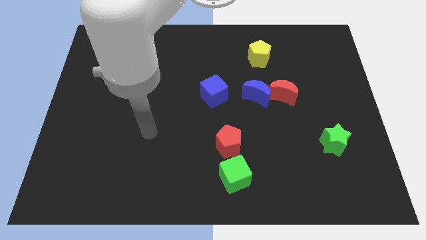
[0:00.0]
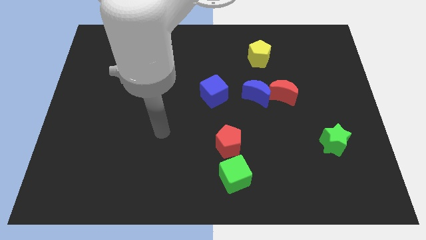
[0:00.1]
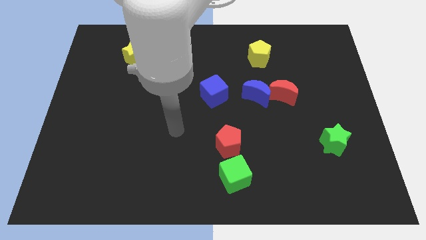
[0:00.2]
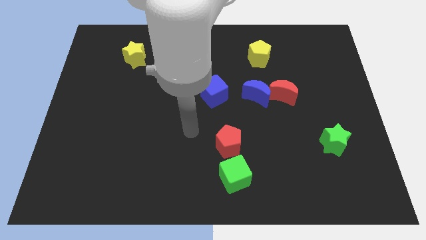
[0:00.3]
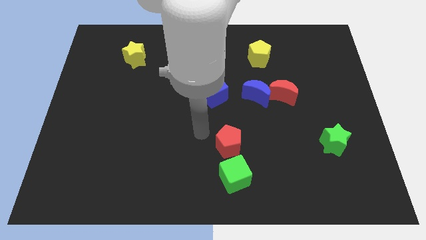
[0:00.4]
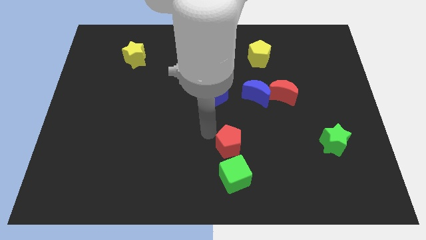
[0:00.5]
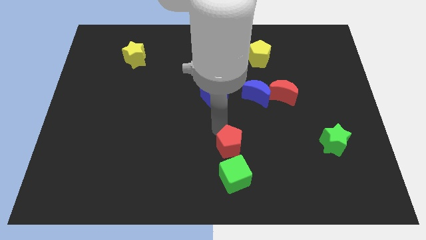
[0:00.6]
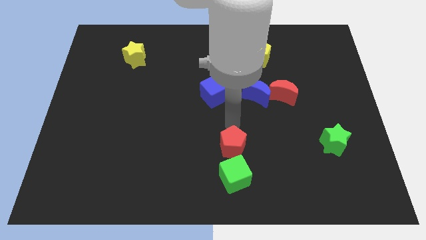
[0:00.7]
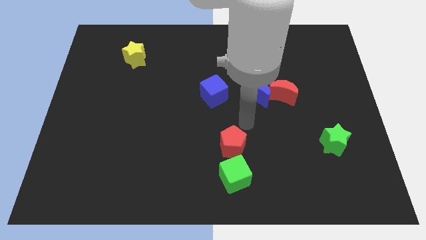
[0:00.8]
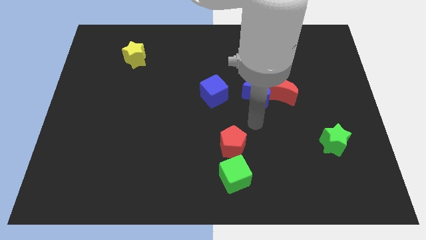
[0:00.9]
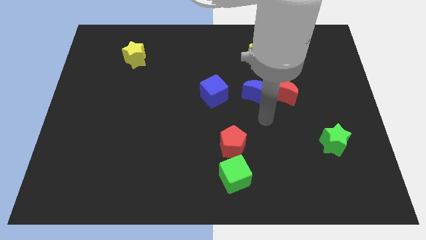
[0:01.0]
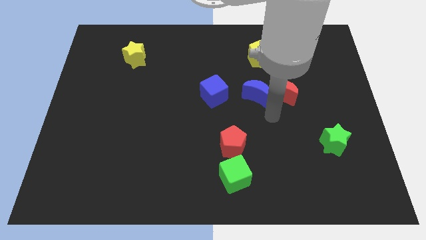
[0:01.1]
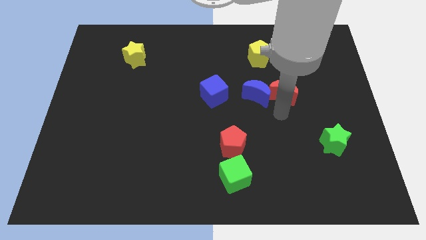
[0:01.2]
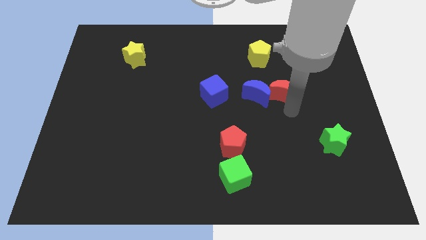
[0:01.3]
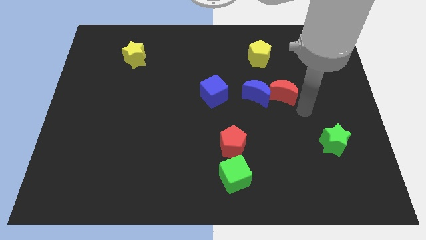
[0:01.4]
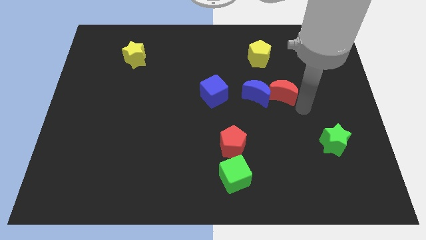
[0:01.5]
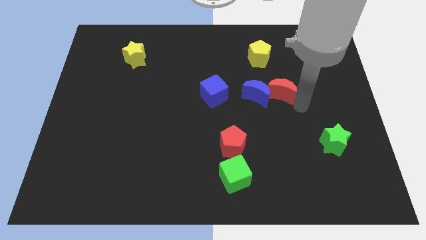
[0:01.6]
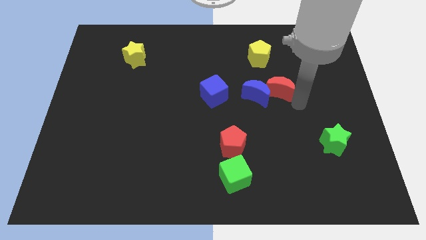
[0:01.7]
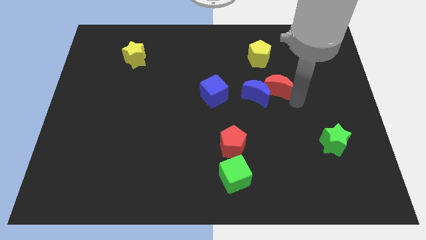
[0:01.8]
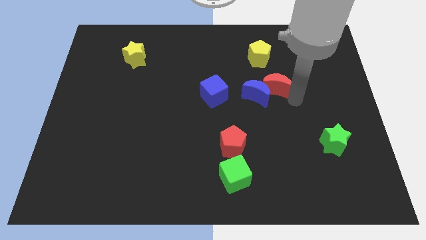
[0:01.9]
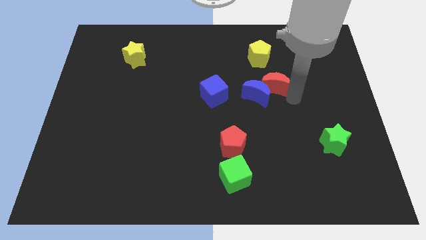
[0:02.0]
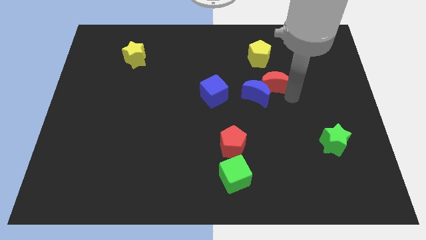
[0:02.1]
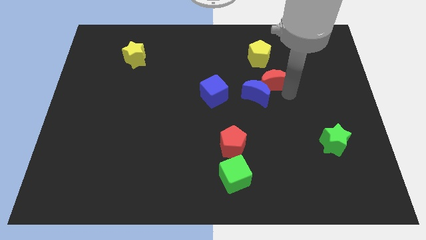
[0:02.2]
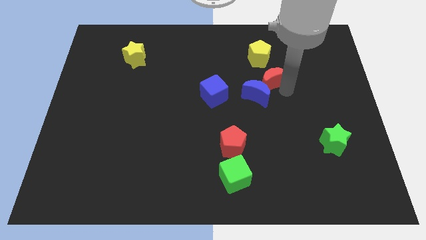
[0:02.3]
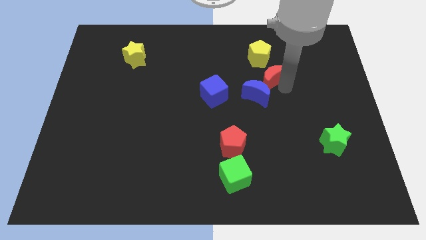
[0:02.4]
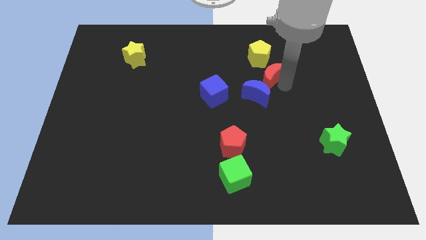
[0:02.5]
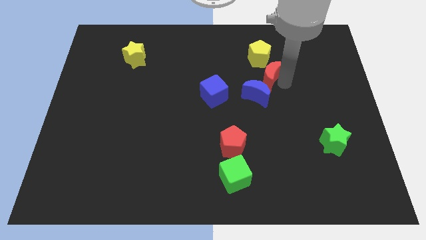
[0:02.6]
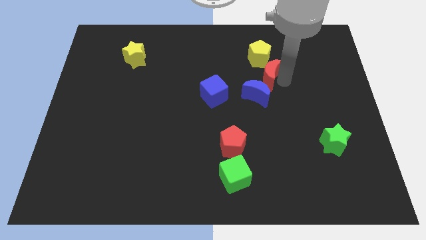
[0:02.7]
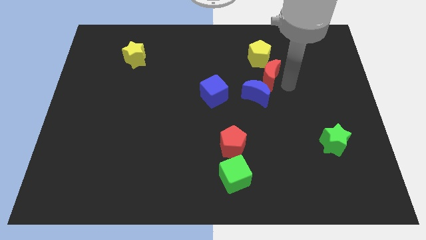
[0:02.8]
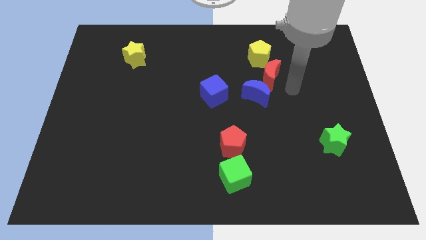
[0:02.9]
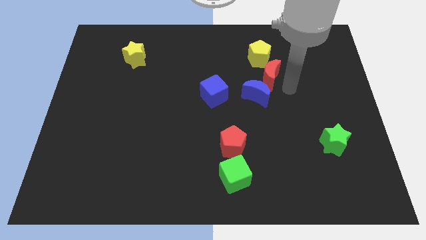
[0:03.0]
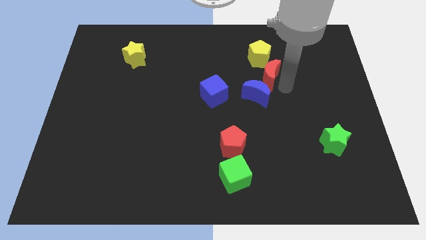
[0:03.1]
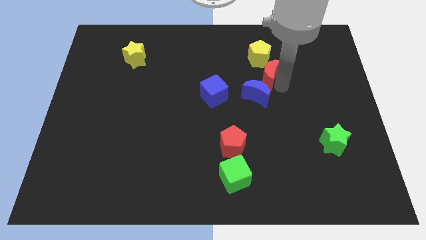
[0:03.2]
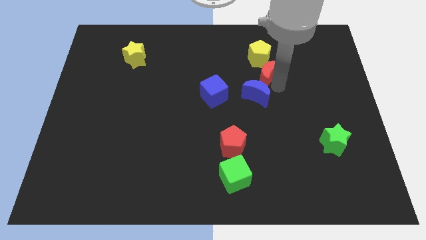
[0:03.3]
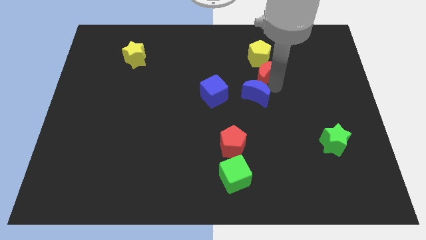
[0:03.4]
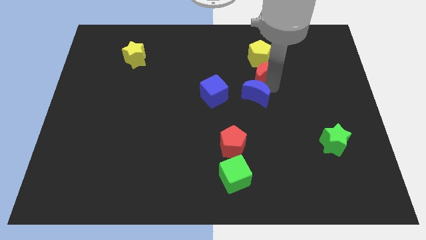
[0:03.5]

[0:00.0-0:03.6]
slide the red moon somewhat upwards and left diagonally

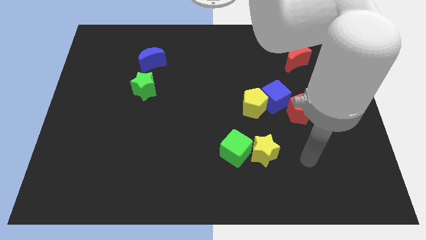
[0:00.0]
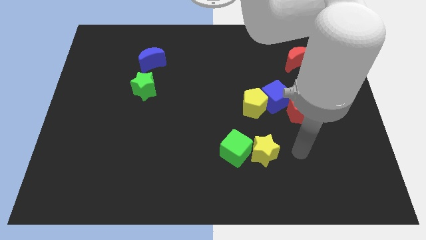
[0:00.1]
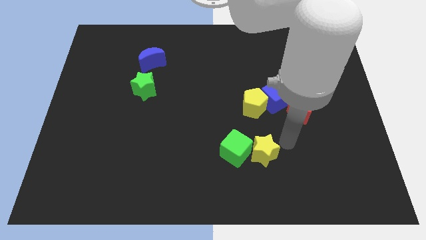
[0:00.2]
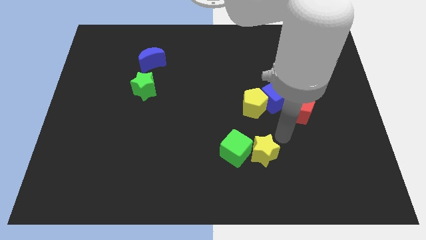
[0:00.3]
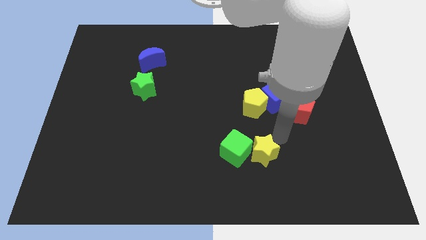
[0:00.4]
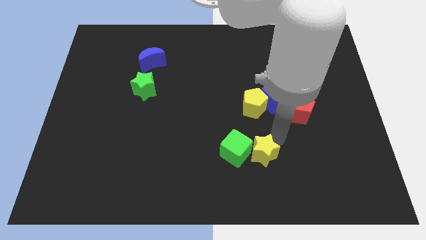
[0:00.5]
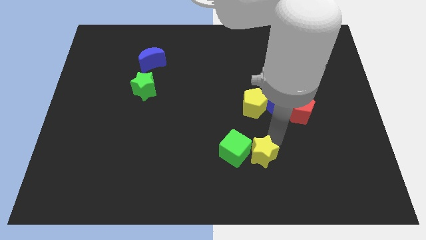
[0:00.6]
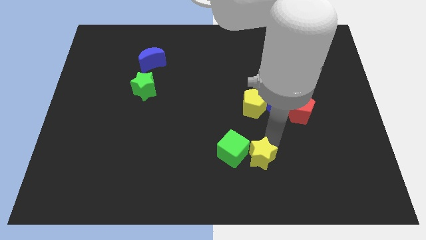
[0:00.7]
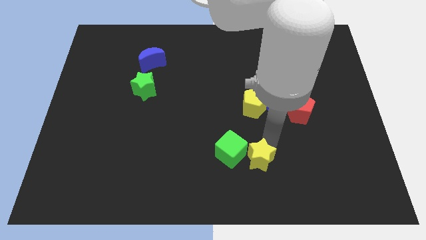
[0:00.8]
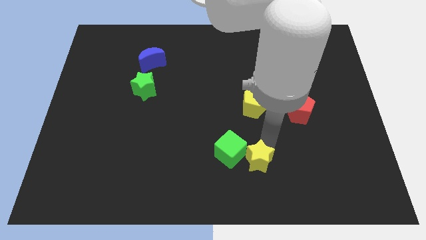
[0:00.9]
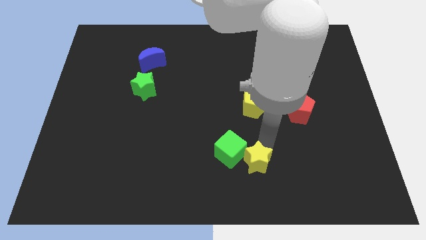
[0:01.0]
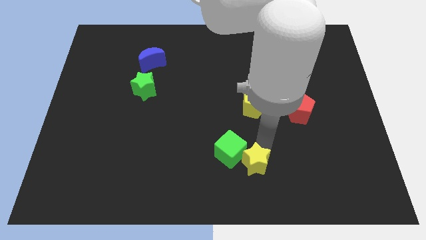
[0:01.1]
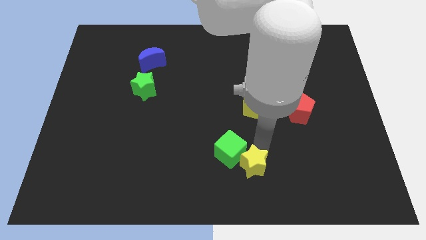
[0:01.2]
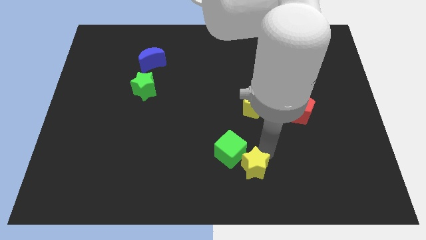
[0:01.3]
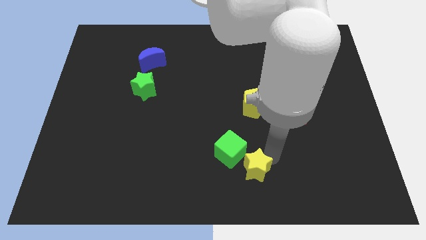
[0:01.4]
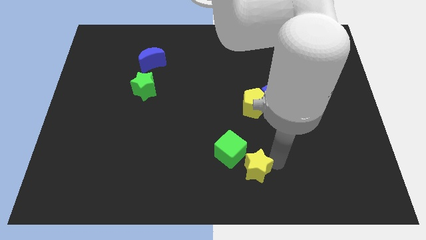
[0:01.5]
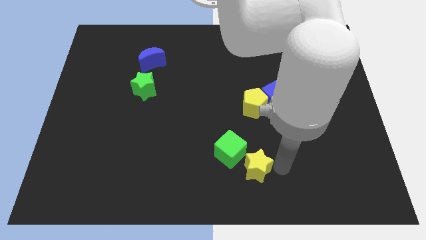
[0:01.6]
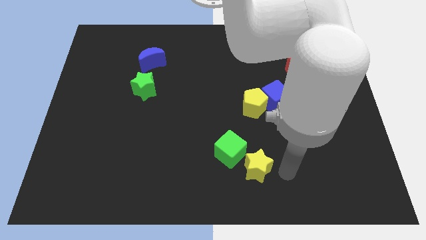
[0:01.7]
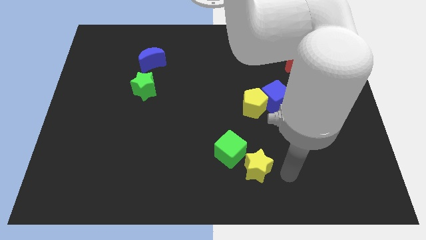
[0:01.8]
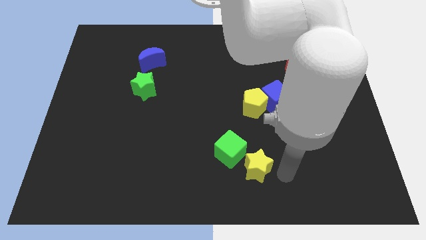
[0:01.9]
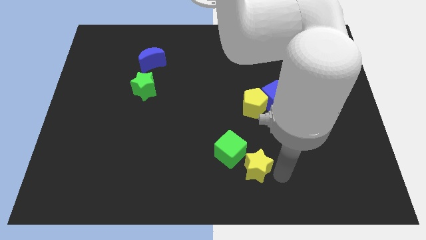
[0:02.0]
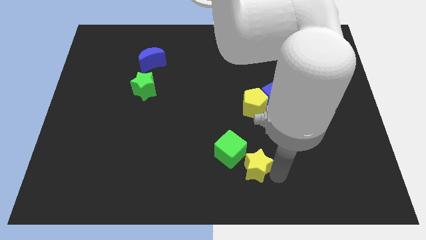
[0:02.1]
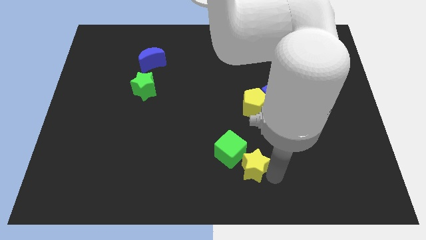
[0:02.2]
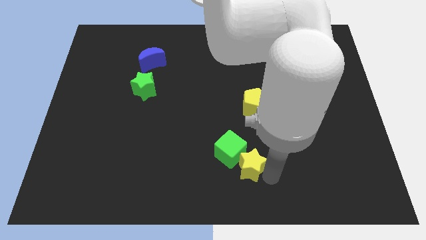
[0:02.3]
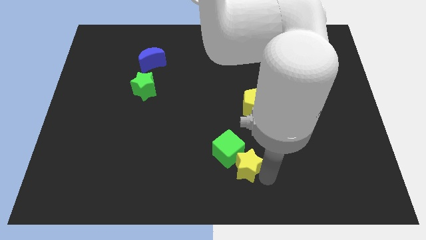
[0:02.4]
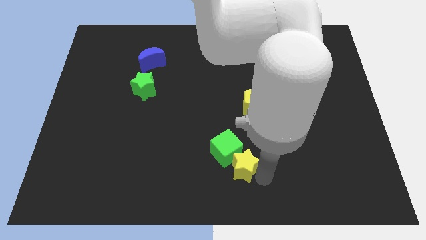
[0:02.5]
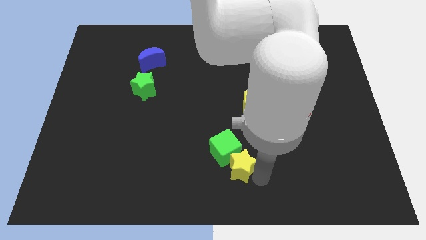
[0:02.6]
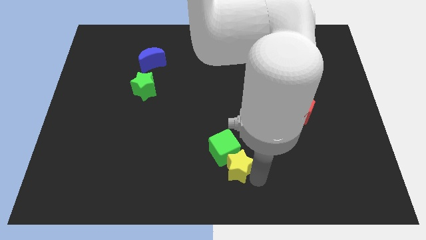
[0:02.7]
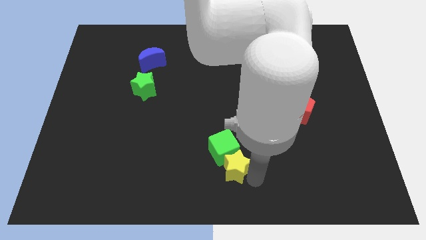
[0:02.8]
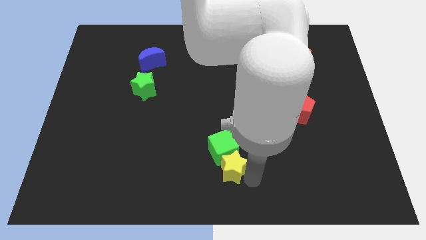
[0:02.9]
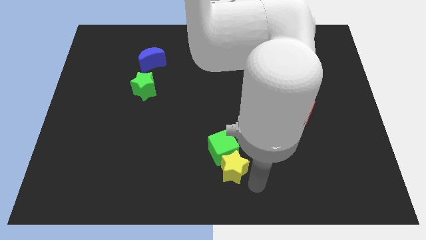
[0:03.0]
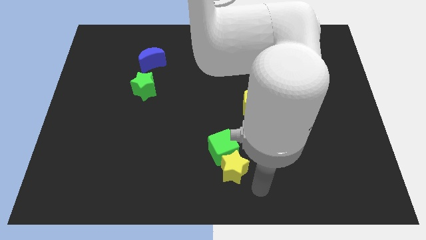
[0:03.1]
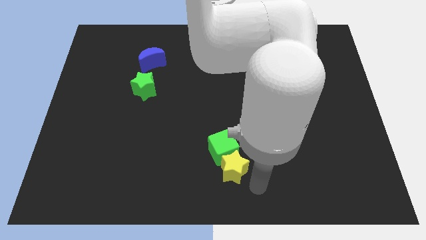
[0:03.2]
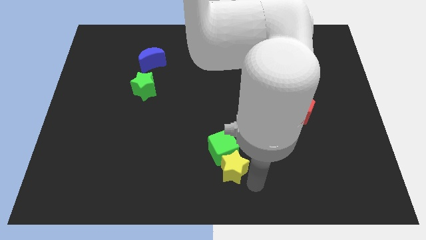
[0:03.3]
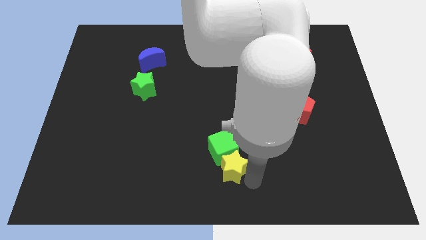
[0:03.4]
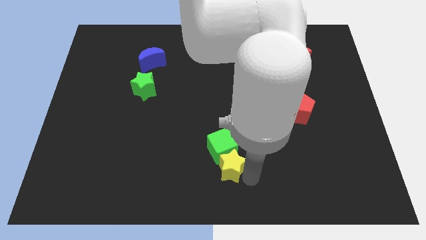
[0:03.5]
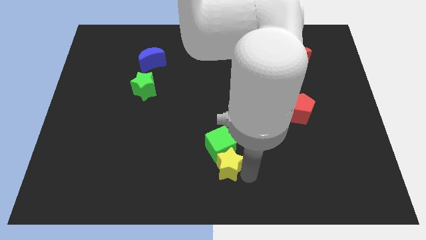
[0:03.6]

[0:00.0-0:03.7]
push the yellow star a little bit to the left

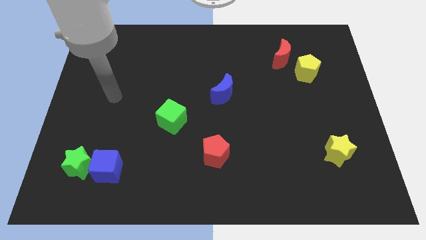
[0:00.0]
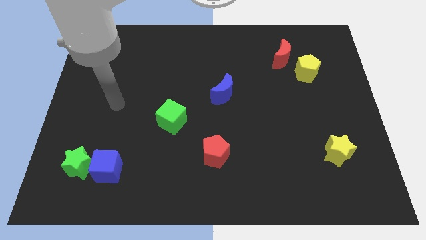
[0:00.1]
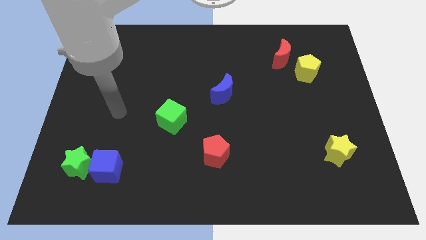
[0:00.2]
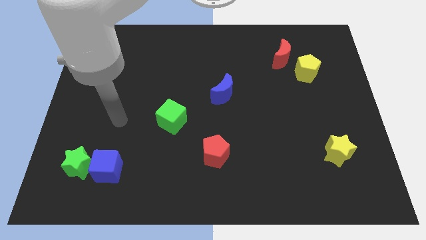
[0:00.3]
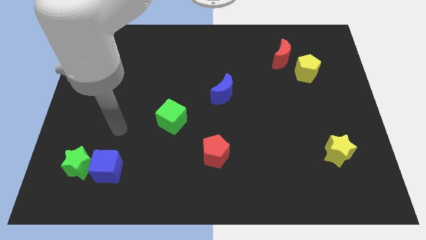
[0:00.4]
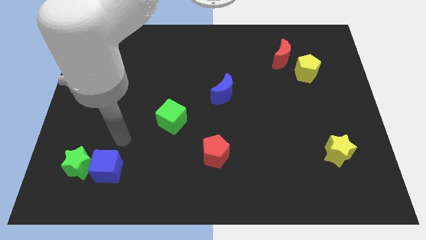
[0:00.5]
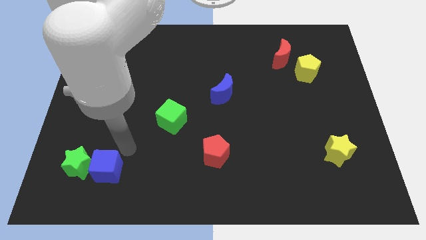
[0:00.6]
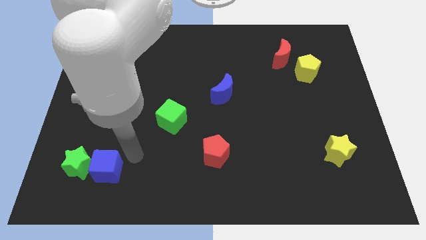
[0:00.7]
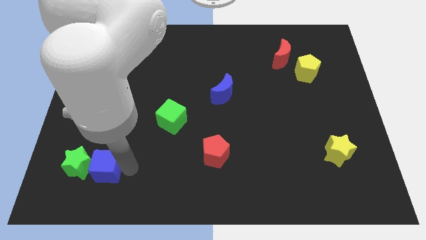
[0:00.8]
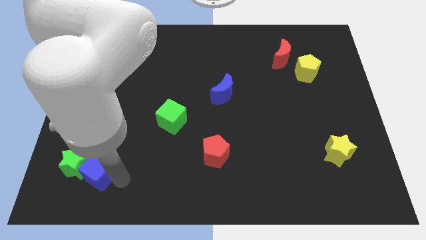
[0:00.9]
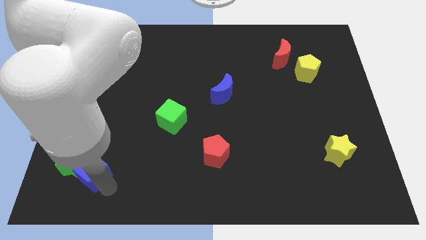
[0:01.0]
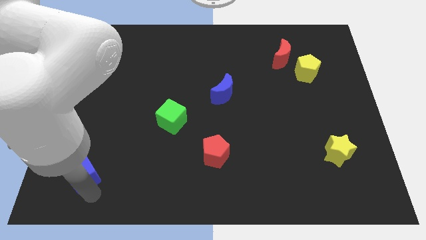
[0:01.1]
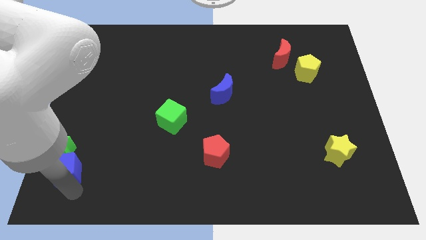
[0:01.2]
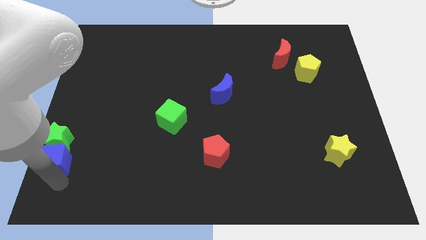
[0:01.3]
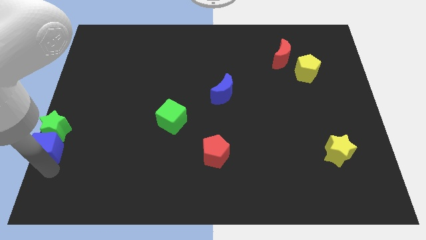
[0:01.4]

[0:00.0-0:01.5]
slide the green star up a bit
